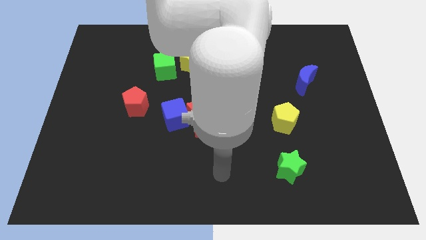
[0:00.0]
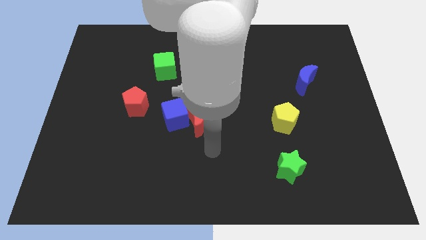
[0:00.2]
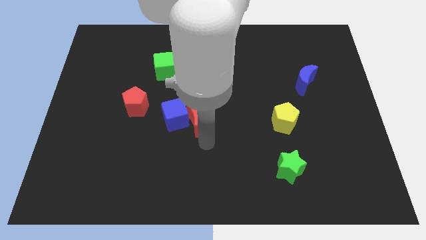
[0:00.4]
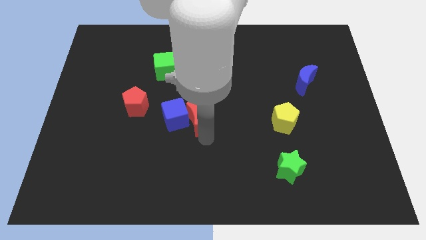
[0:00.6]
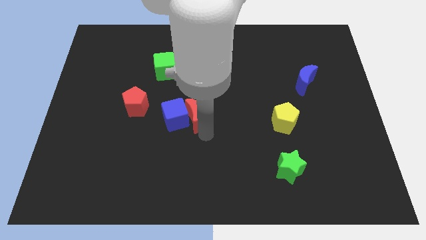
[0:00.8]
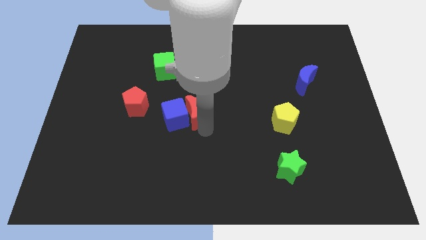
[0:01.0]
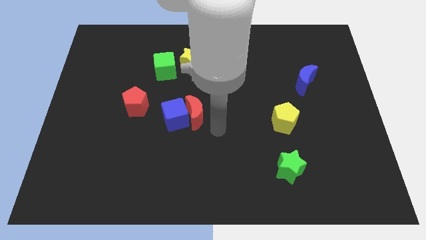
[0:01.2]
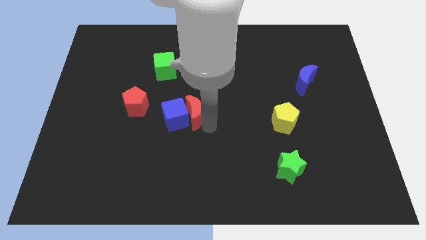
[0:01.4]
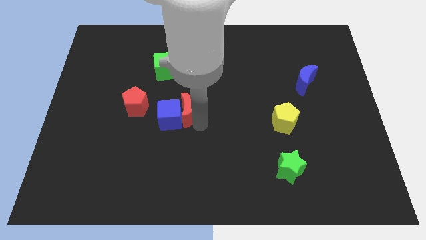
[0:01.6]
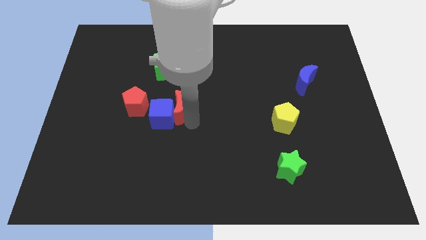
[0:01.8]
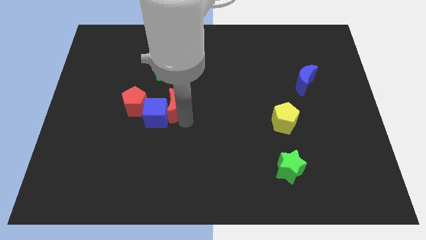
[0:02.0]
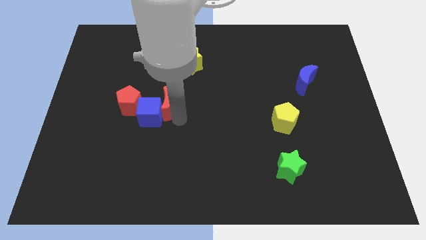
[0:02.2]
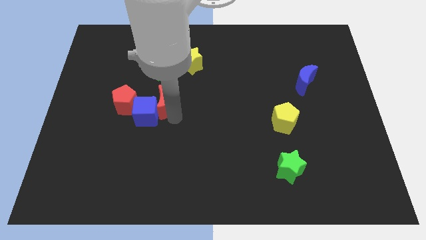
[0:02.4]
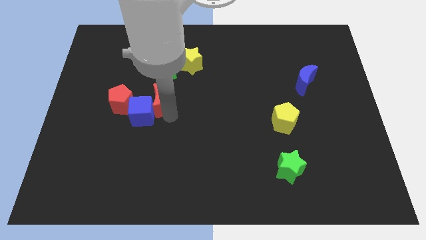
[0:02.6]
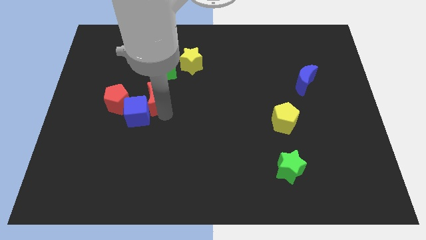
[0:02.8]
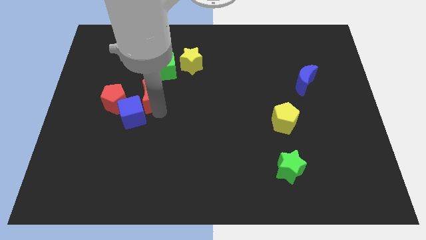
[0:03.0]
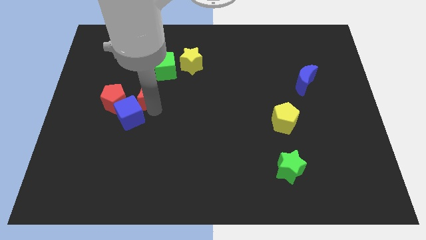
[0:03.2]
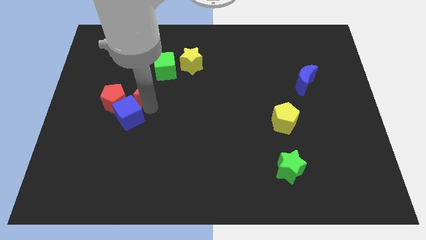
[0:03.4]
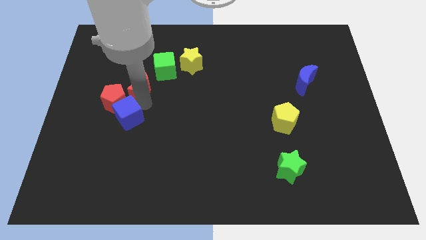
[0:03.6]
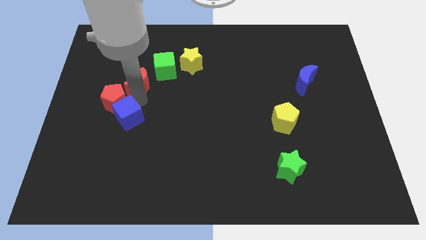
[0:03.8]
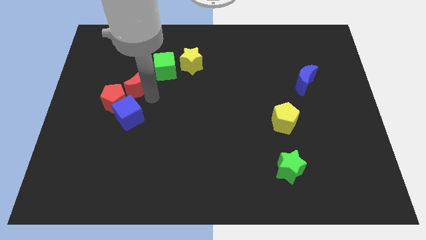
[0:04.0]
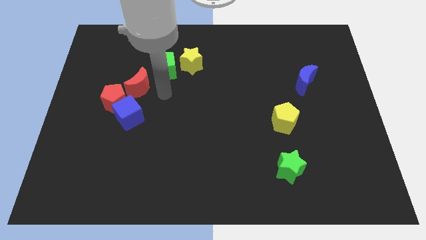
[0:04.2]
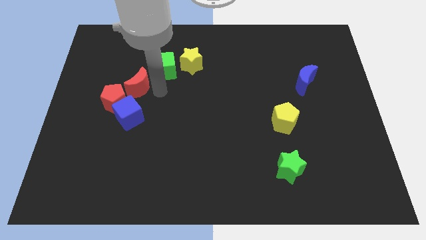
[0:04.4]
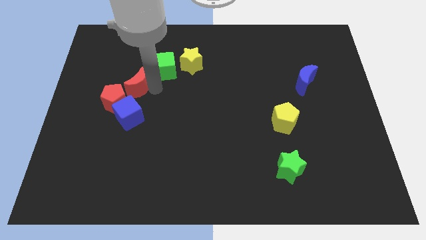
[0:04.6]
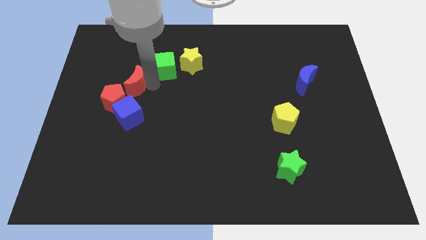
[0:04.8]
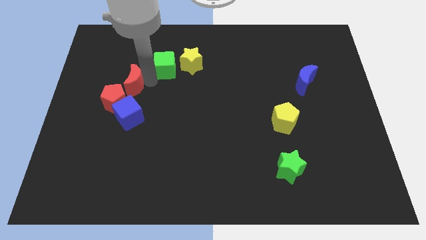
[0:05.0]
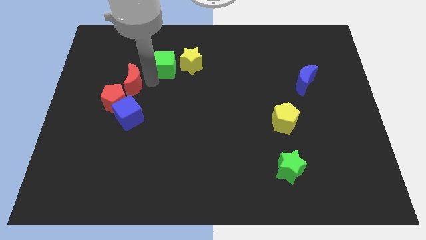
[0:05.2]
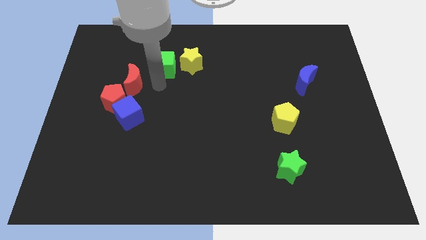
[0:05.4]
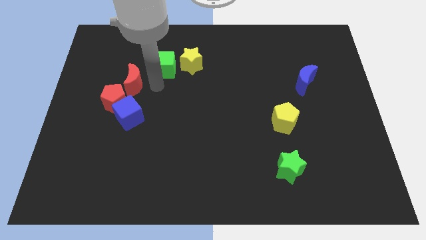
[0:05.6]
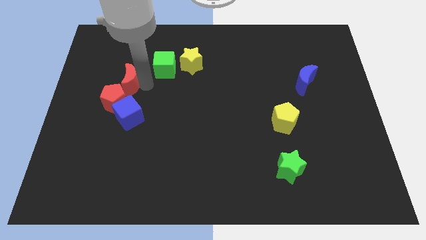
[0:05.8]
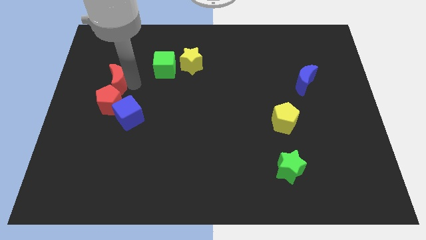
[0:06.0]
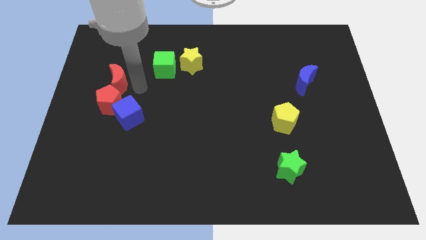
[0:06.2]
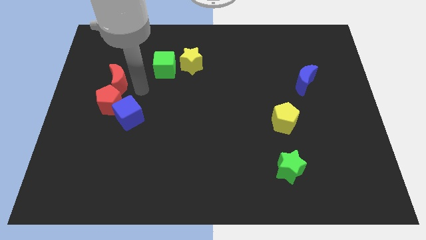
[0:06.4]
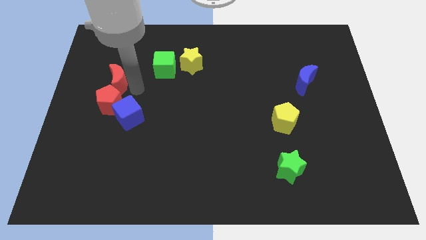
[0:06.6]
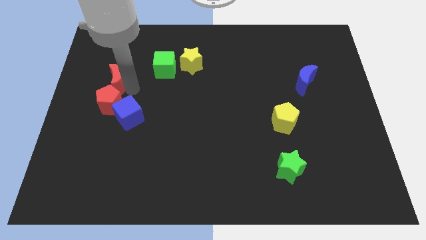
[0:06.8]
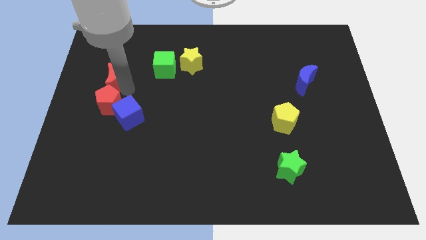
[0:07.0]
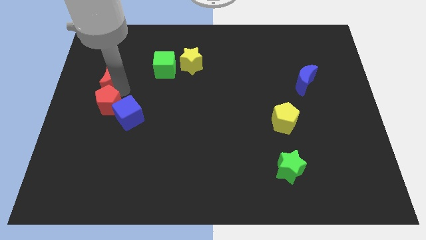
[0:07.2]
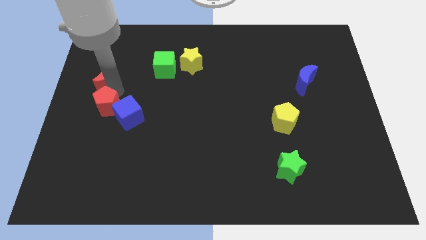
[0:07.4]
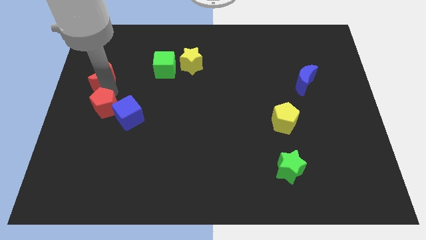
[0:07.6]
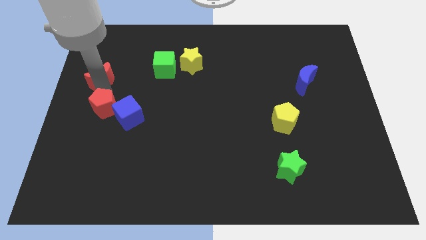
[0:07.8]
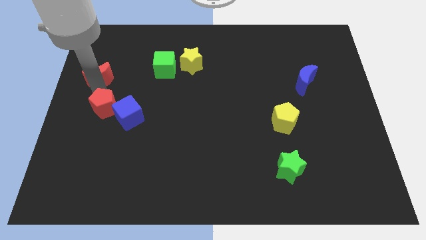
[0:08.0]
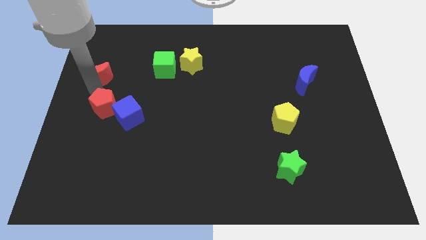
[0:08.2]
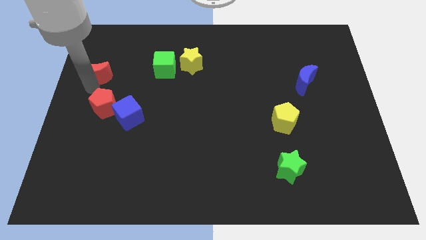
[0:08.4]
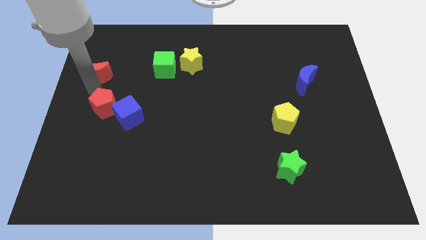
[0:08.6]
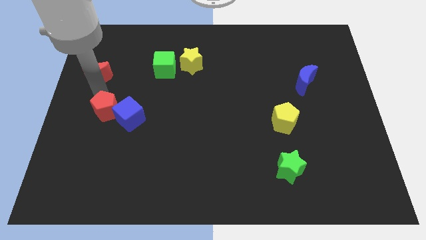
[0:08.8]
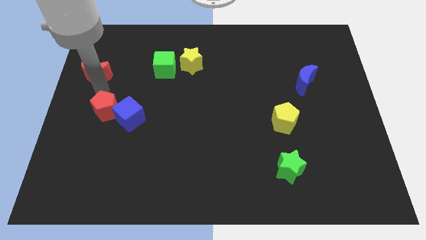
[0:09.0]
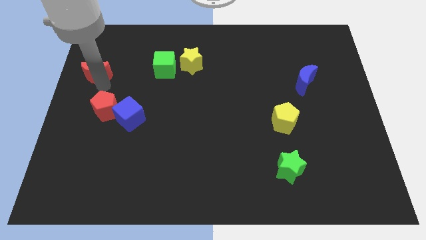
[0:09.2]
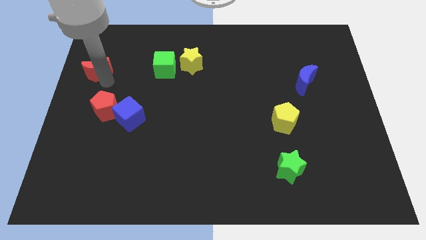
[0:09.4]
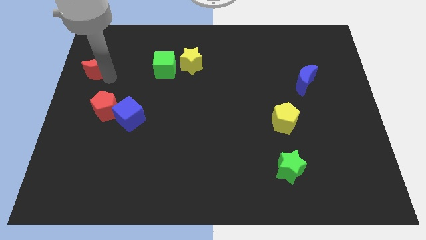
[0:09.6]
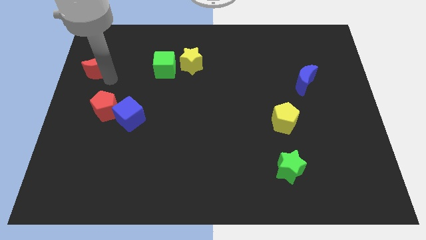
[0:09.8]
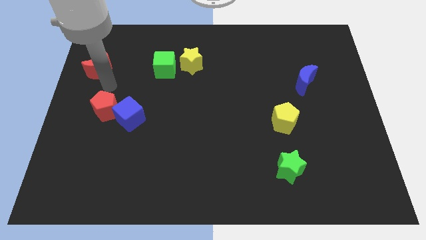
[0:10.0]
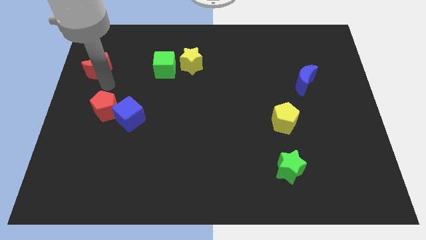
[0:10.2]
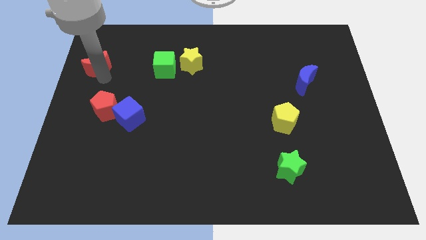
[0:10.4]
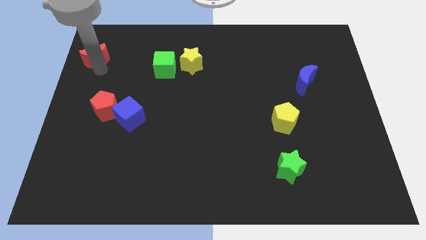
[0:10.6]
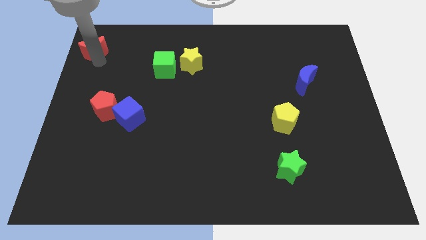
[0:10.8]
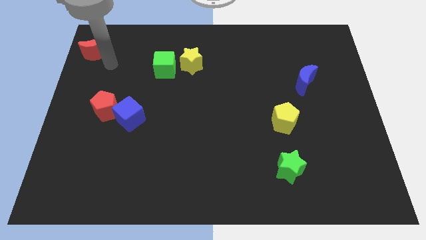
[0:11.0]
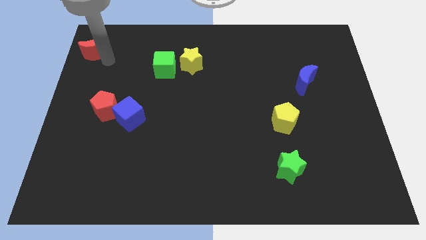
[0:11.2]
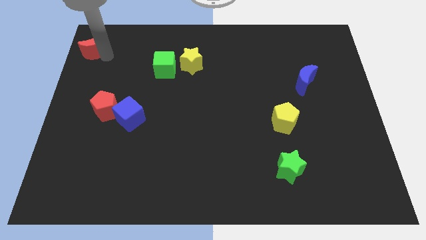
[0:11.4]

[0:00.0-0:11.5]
move the red moon to the top left corner
